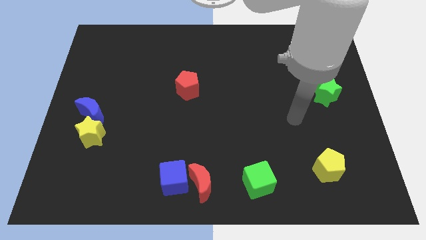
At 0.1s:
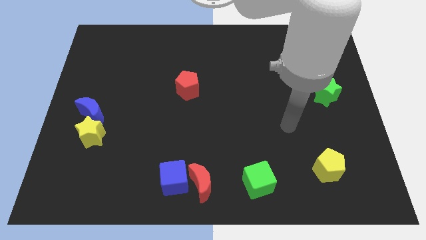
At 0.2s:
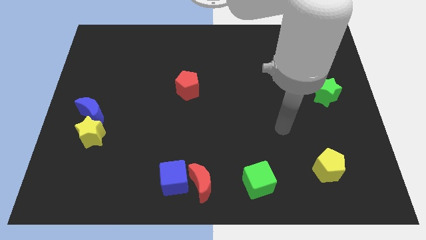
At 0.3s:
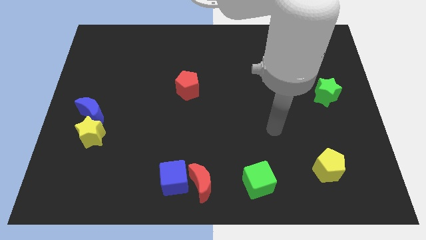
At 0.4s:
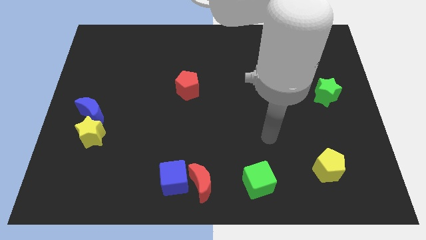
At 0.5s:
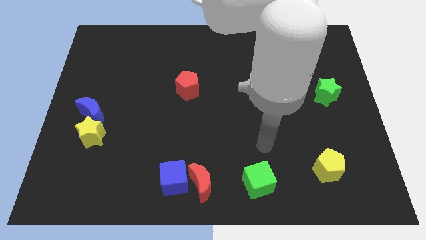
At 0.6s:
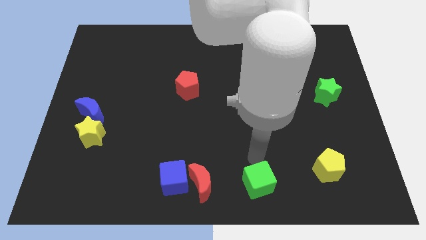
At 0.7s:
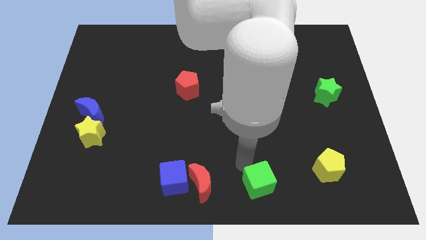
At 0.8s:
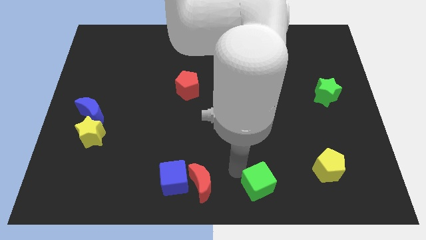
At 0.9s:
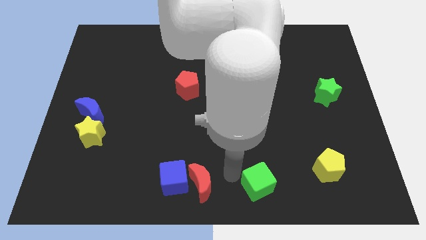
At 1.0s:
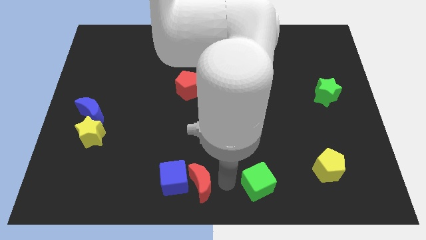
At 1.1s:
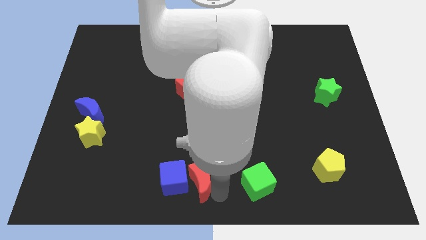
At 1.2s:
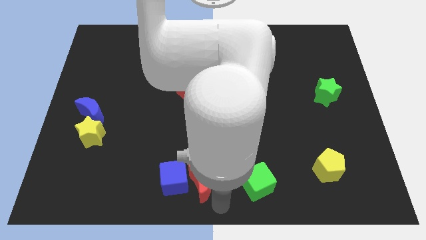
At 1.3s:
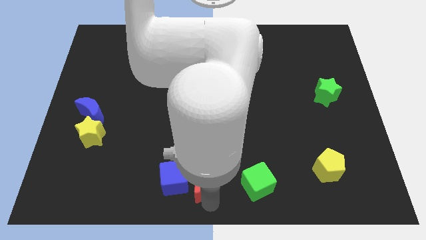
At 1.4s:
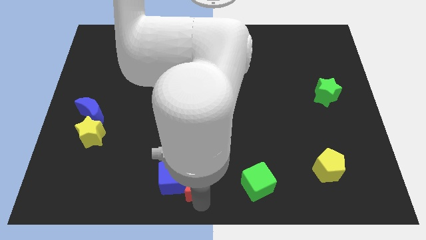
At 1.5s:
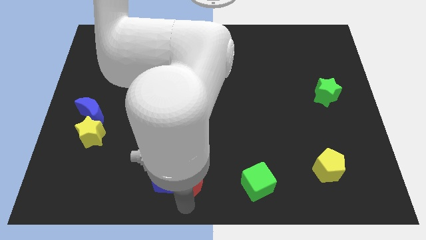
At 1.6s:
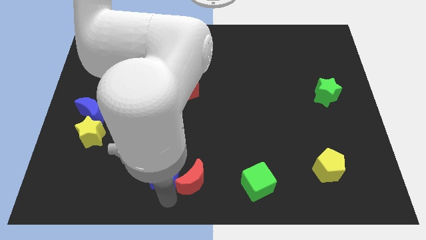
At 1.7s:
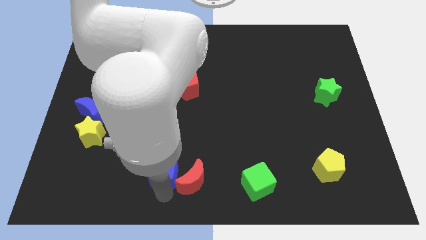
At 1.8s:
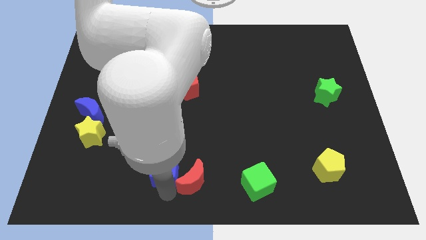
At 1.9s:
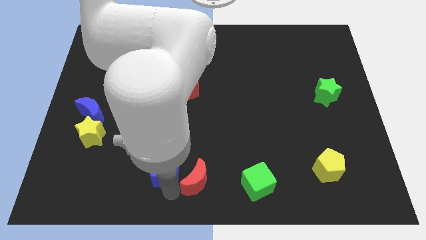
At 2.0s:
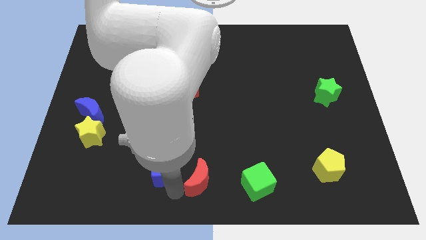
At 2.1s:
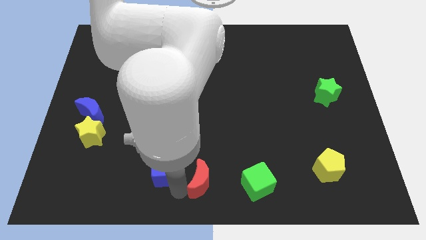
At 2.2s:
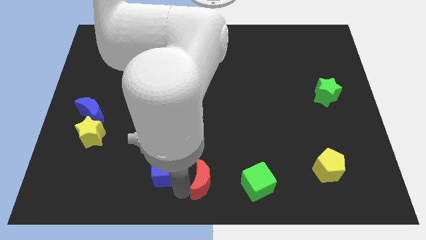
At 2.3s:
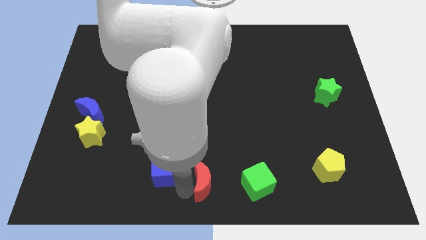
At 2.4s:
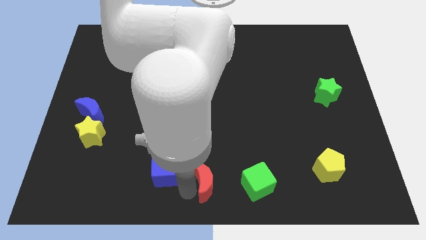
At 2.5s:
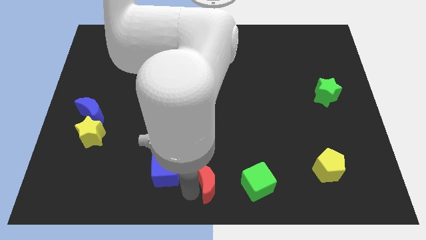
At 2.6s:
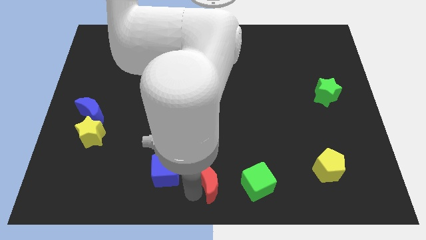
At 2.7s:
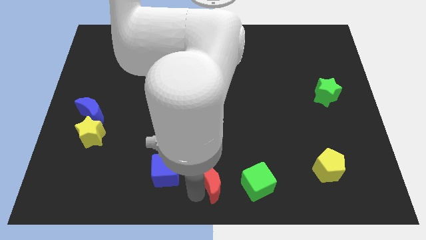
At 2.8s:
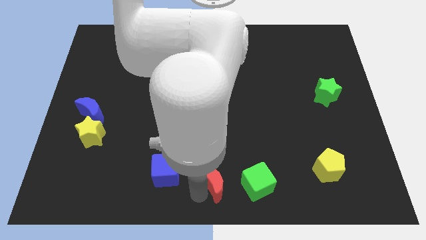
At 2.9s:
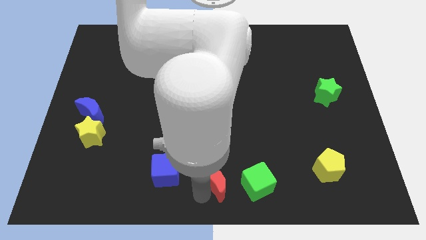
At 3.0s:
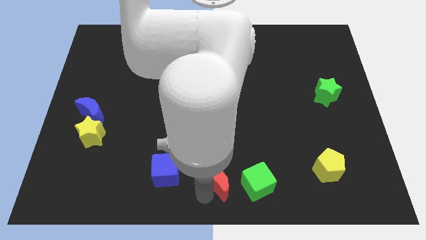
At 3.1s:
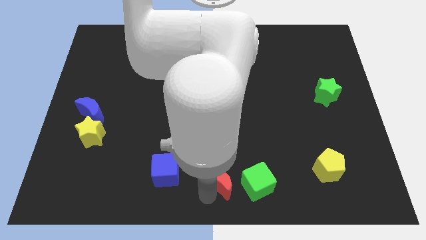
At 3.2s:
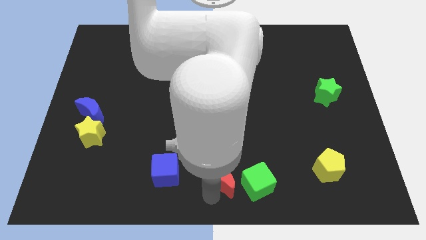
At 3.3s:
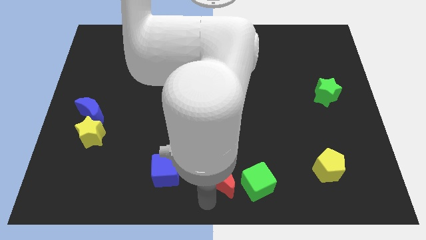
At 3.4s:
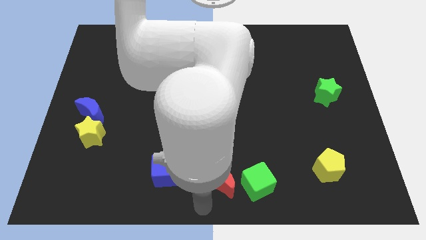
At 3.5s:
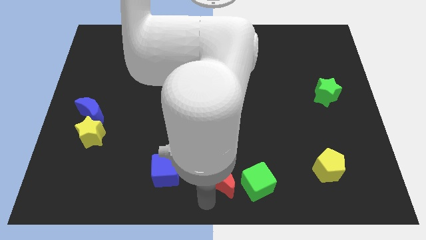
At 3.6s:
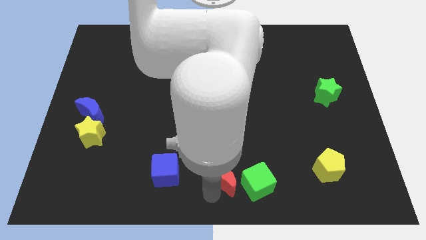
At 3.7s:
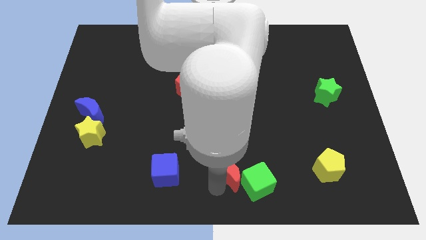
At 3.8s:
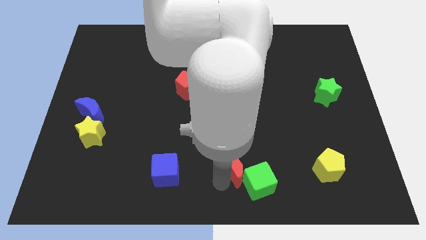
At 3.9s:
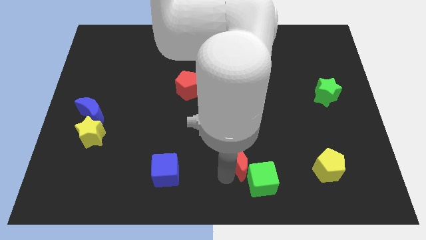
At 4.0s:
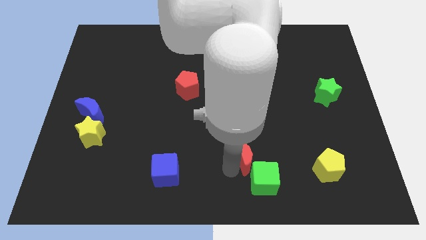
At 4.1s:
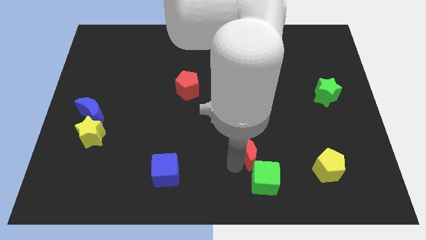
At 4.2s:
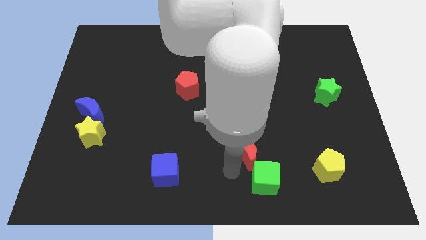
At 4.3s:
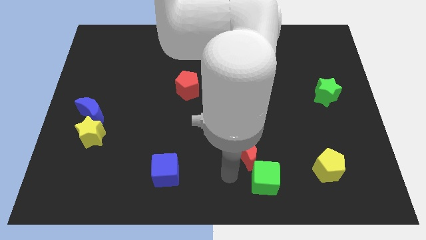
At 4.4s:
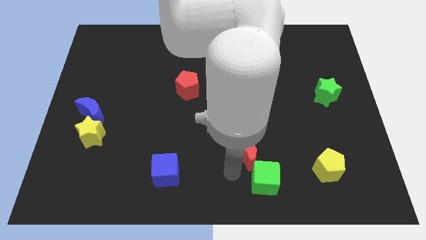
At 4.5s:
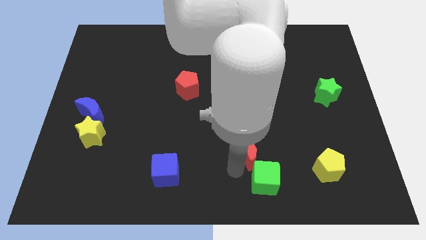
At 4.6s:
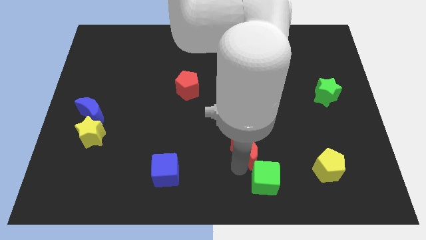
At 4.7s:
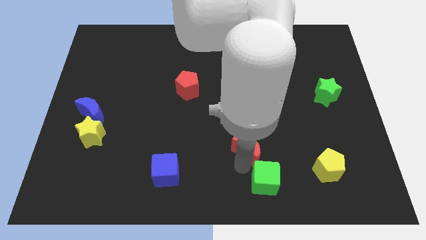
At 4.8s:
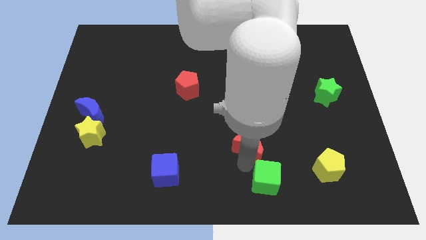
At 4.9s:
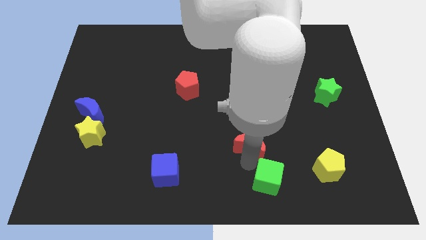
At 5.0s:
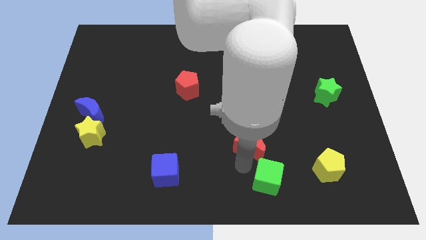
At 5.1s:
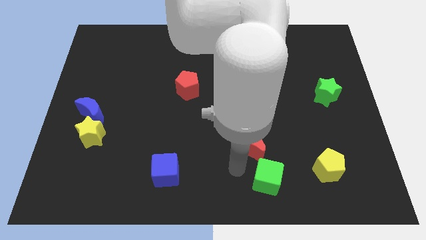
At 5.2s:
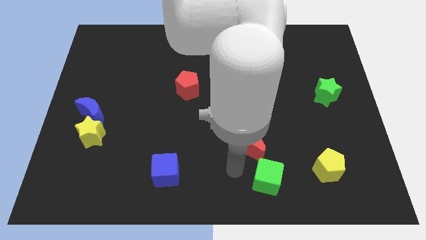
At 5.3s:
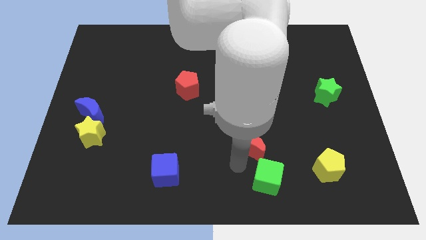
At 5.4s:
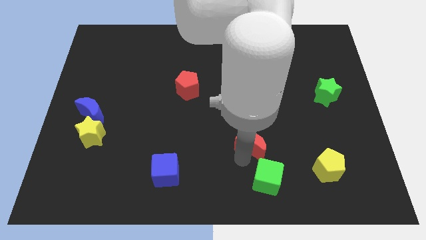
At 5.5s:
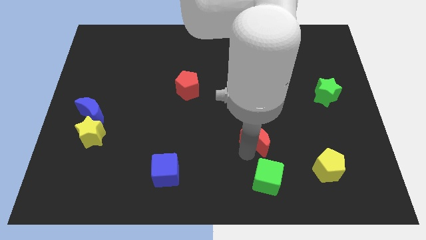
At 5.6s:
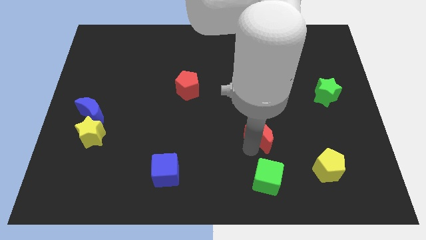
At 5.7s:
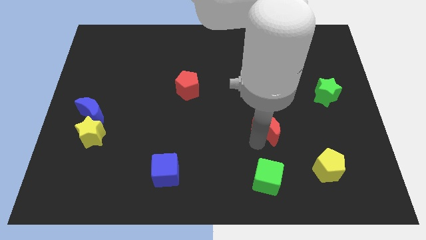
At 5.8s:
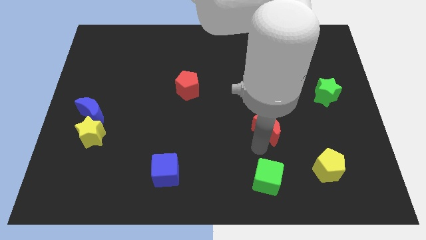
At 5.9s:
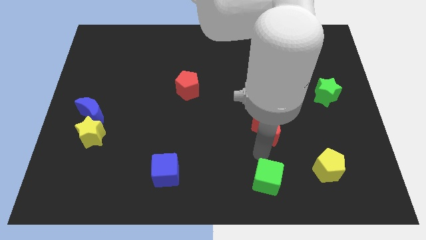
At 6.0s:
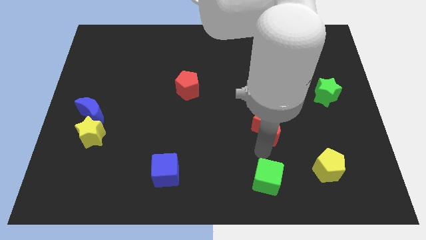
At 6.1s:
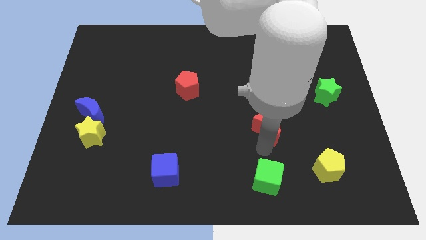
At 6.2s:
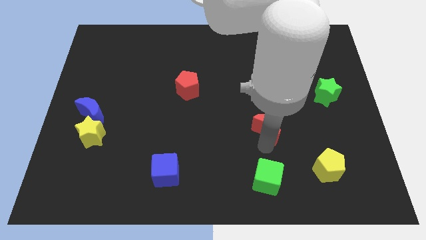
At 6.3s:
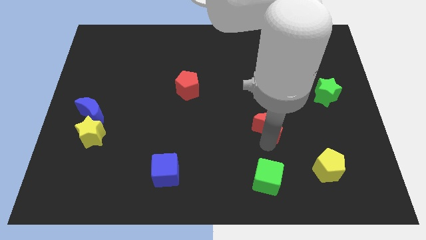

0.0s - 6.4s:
slide the red moon up and right diagonally

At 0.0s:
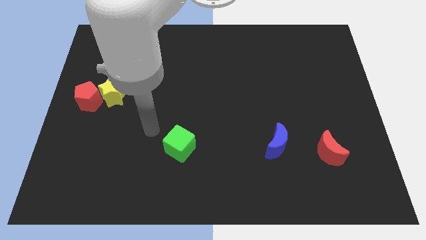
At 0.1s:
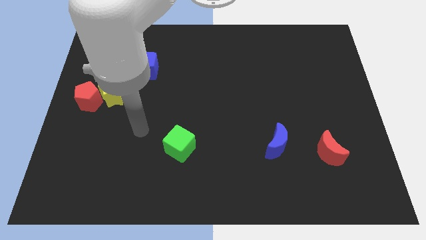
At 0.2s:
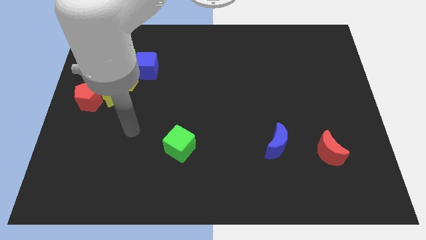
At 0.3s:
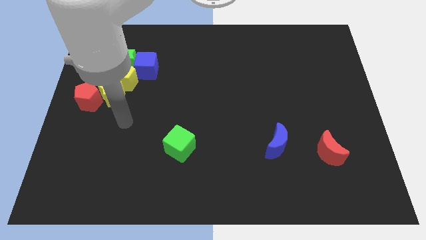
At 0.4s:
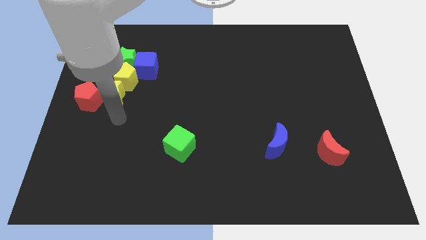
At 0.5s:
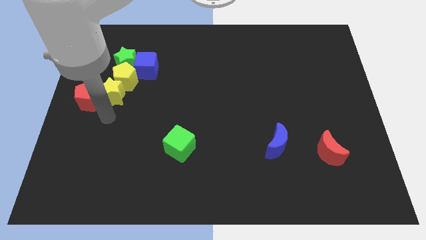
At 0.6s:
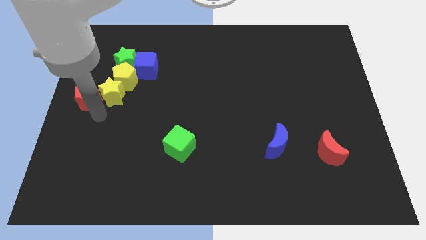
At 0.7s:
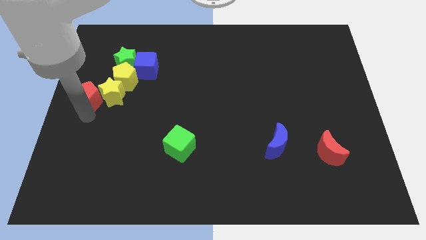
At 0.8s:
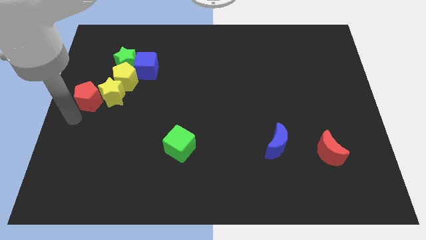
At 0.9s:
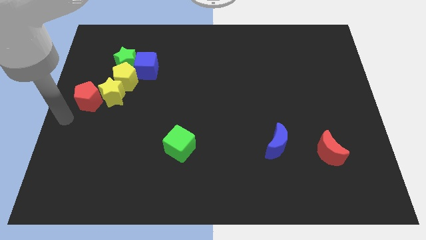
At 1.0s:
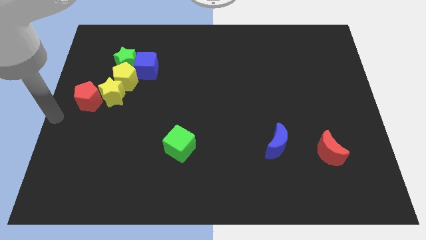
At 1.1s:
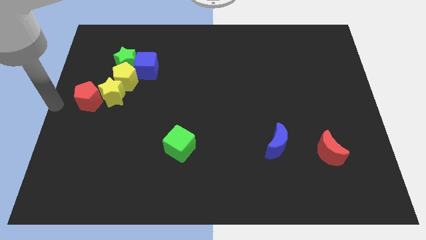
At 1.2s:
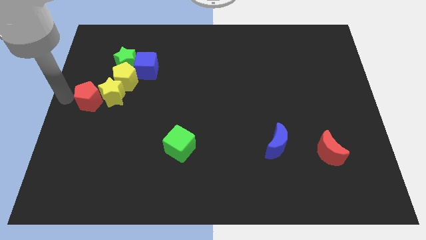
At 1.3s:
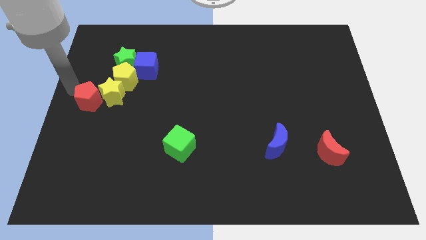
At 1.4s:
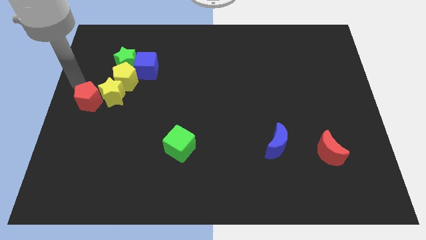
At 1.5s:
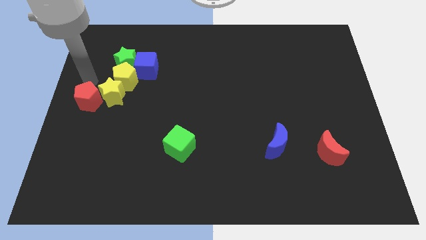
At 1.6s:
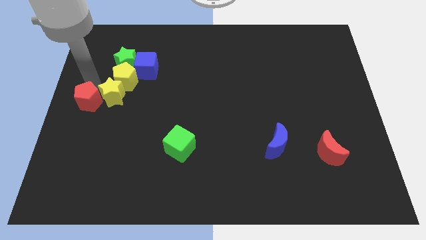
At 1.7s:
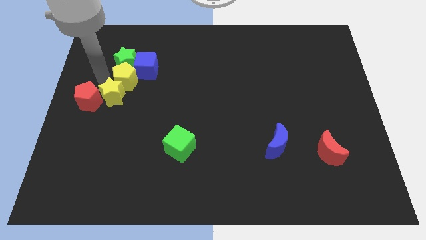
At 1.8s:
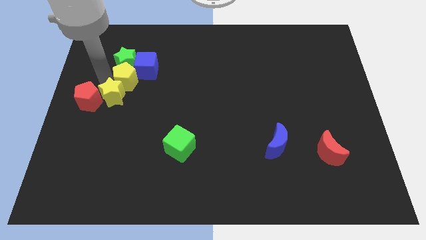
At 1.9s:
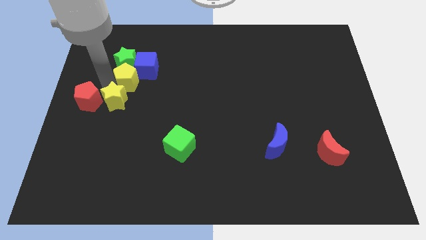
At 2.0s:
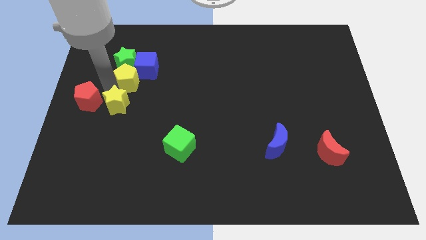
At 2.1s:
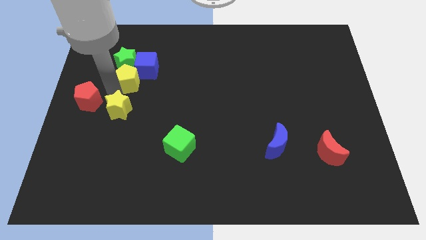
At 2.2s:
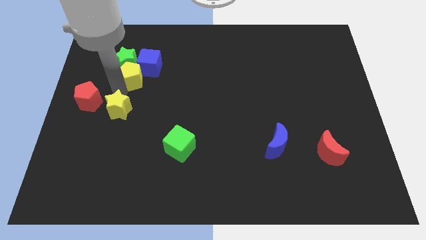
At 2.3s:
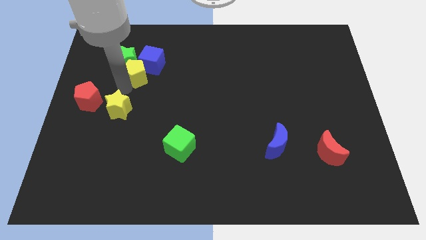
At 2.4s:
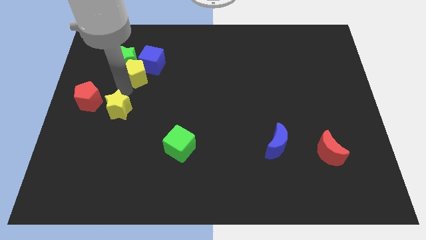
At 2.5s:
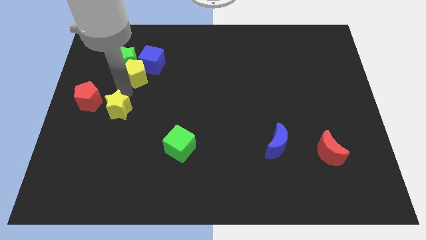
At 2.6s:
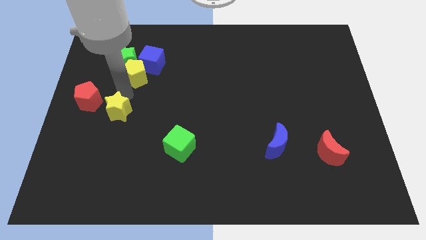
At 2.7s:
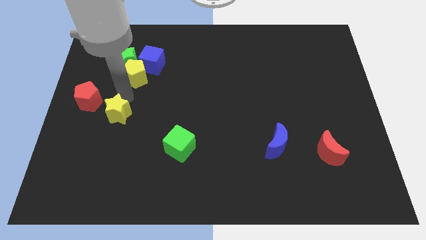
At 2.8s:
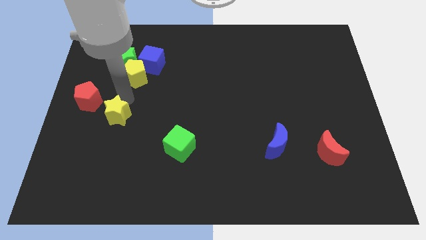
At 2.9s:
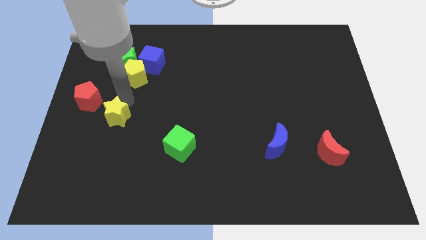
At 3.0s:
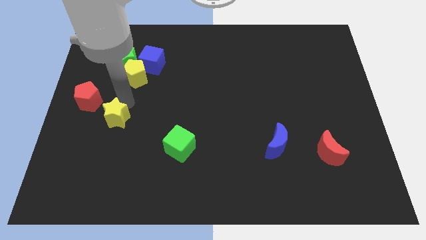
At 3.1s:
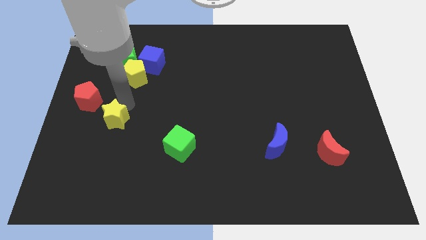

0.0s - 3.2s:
move the yellow star down a little bit
